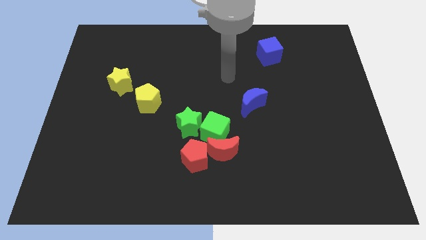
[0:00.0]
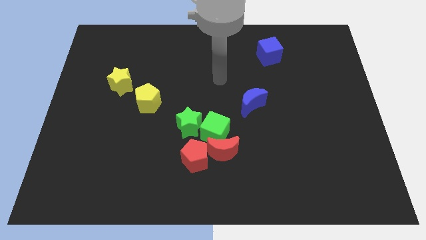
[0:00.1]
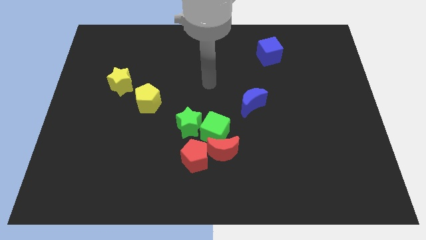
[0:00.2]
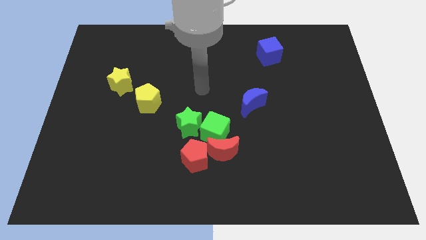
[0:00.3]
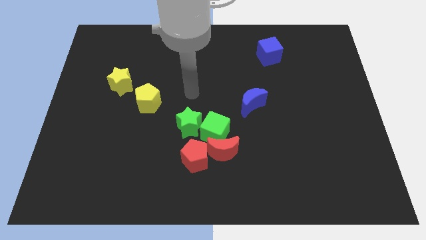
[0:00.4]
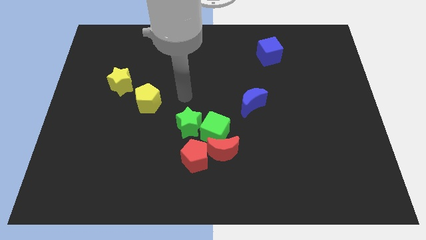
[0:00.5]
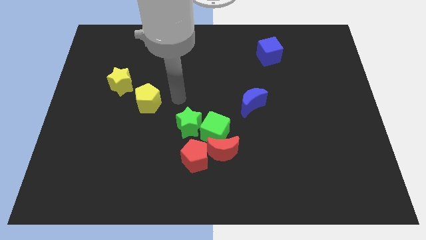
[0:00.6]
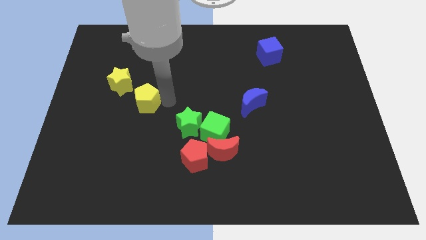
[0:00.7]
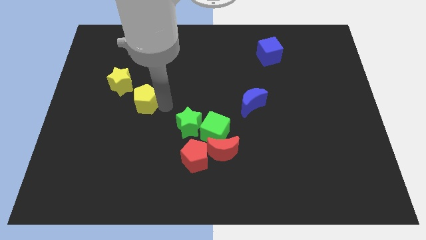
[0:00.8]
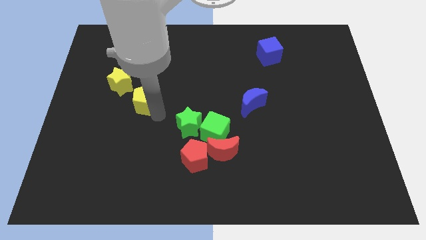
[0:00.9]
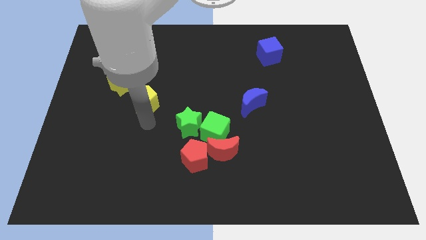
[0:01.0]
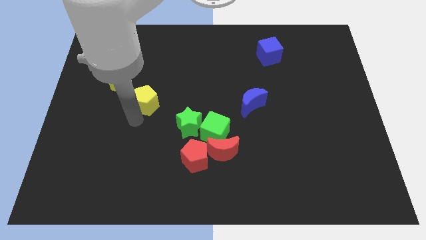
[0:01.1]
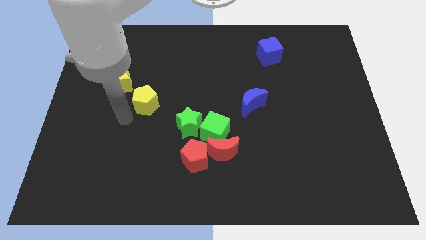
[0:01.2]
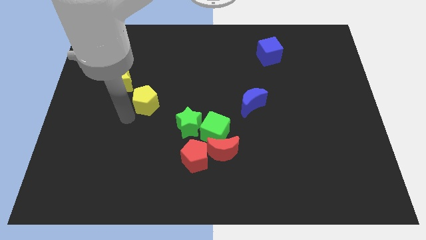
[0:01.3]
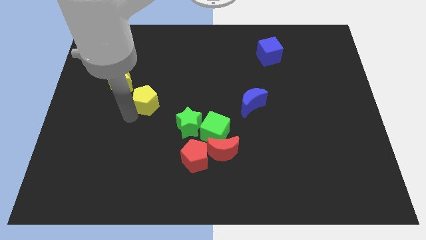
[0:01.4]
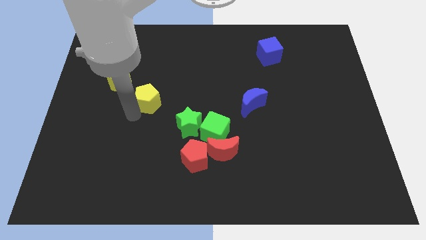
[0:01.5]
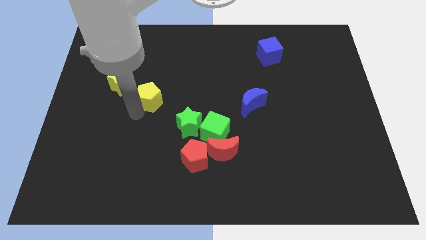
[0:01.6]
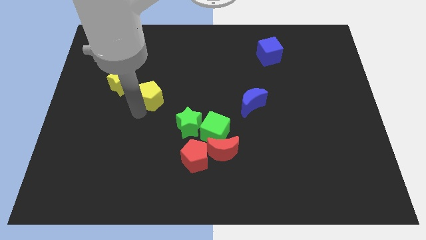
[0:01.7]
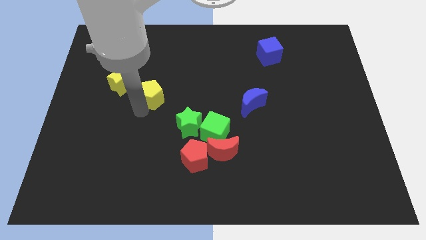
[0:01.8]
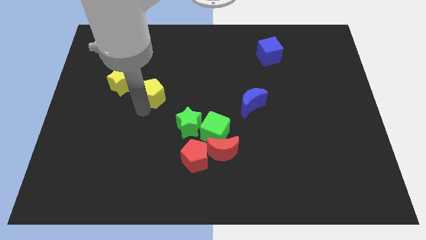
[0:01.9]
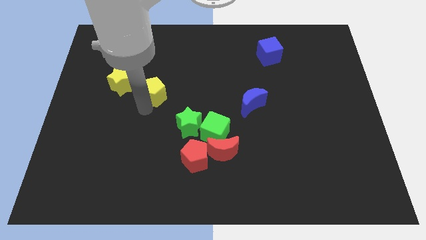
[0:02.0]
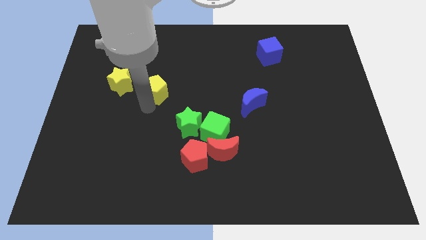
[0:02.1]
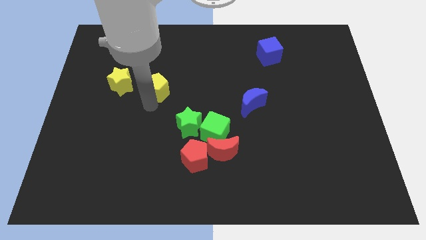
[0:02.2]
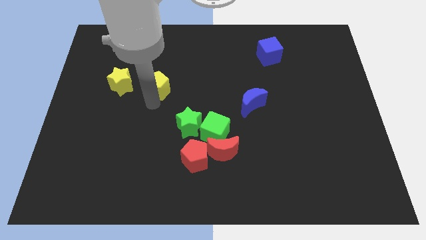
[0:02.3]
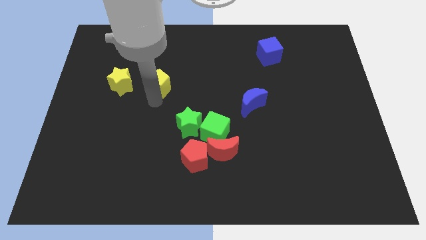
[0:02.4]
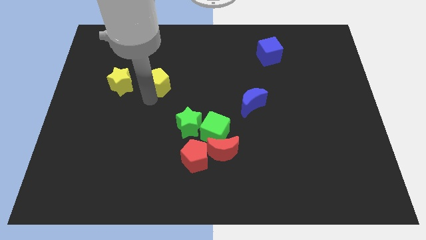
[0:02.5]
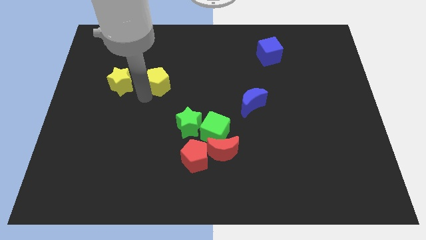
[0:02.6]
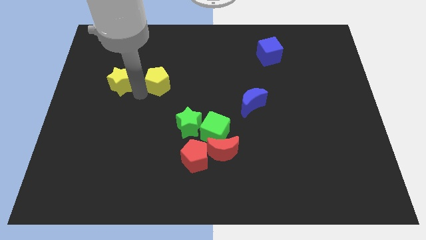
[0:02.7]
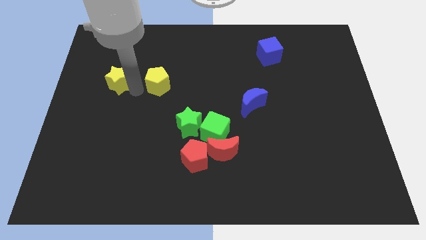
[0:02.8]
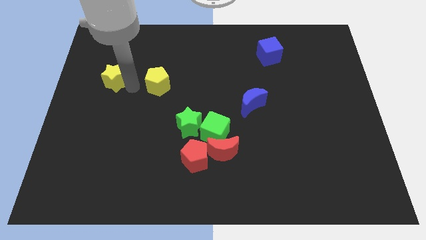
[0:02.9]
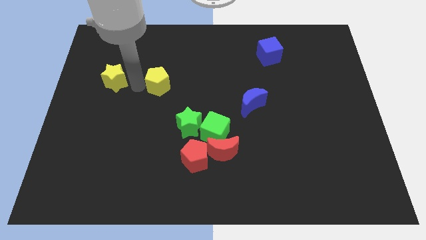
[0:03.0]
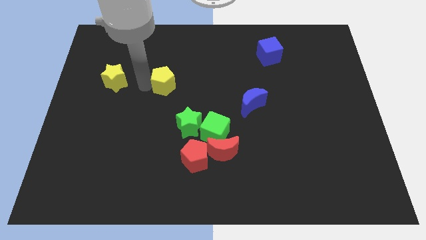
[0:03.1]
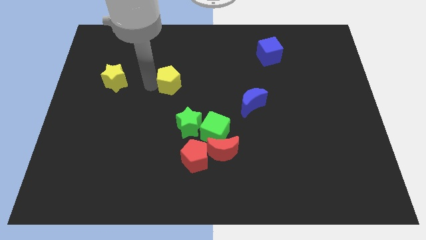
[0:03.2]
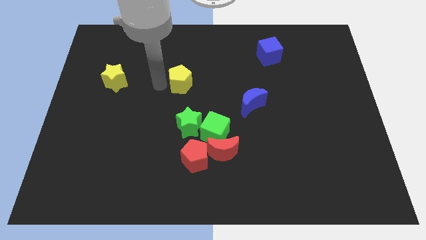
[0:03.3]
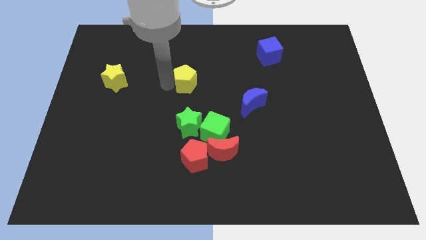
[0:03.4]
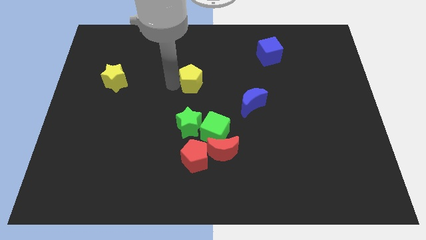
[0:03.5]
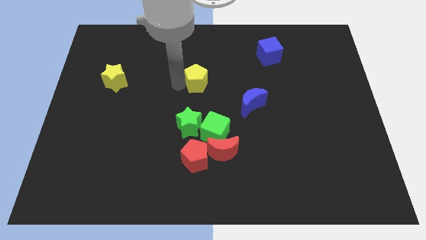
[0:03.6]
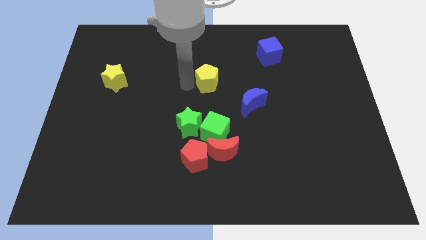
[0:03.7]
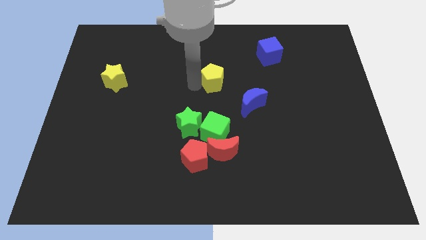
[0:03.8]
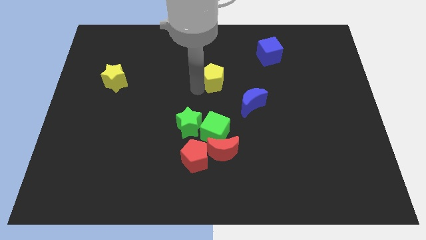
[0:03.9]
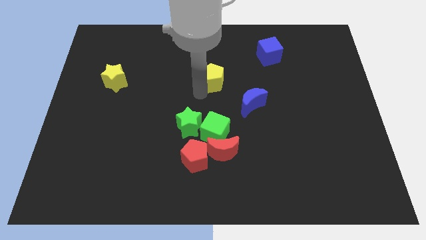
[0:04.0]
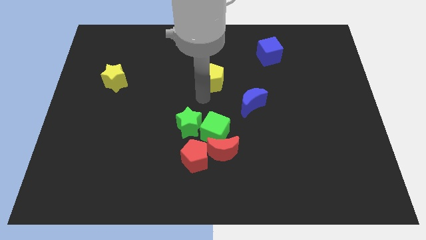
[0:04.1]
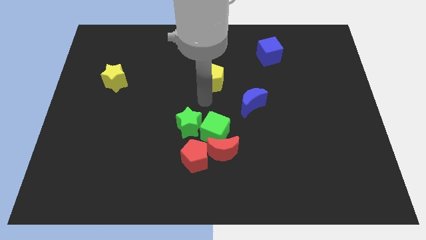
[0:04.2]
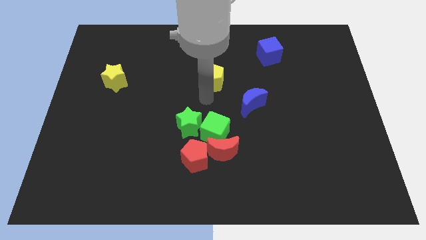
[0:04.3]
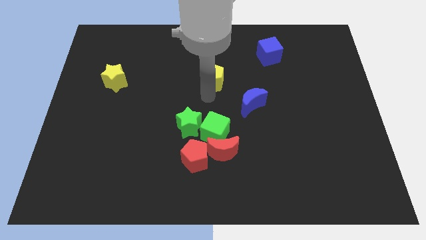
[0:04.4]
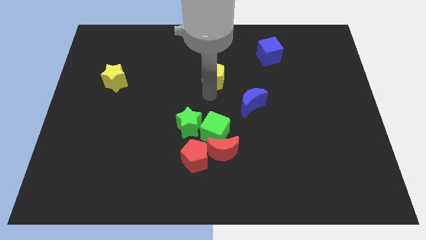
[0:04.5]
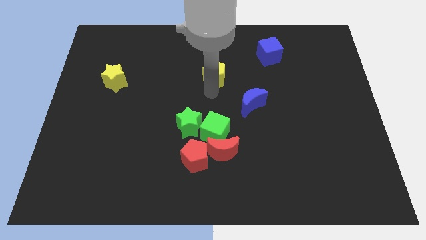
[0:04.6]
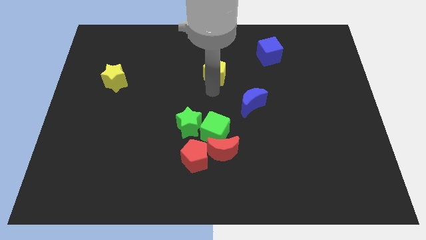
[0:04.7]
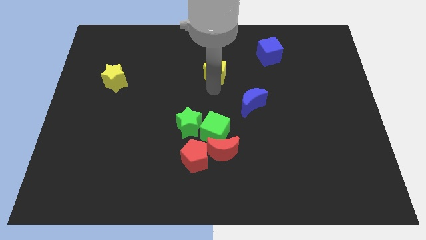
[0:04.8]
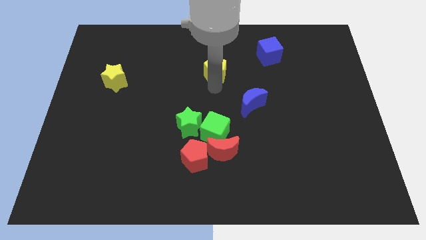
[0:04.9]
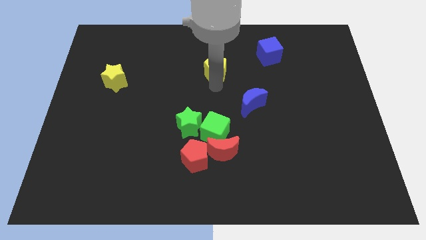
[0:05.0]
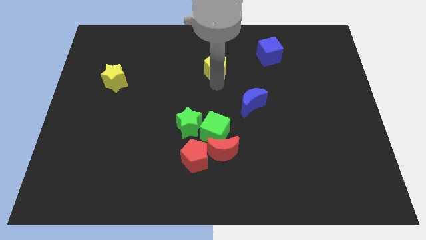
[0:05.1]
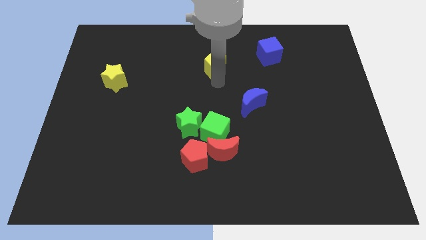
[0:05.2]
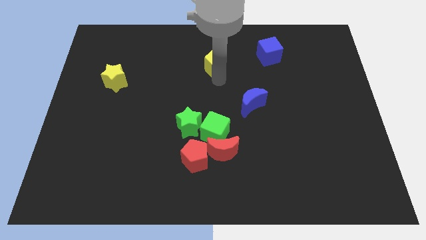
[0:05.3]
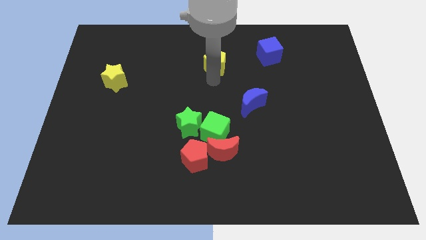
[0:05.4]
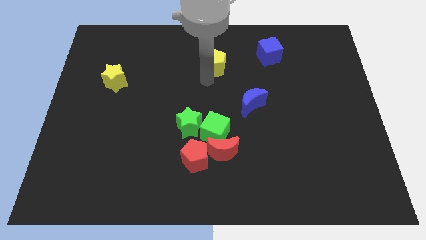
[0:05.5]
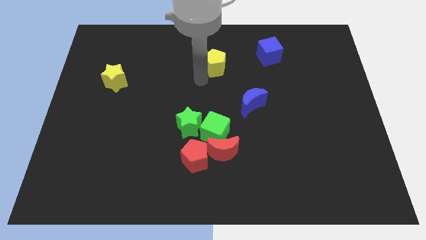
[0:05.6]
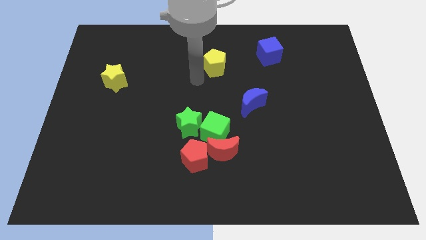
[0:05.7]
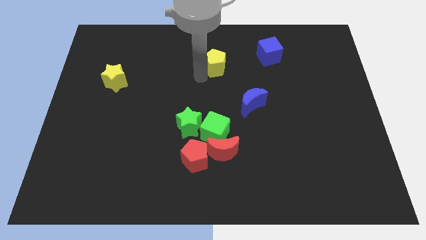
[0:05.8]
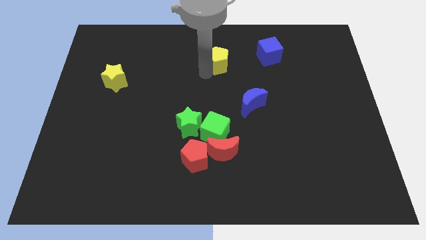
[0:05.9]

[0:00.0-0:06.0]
put the yellow pentagon to the left of the blue cube

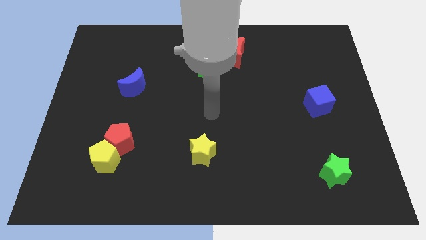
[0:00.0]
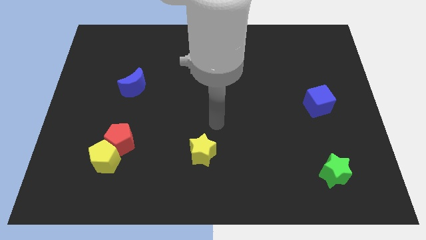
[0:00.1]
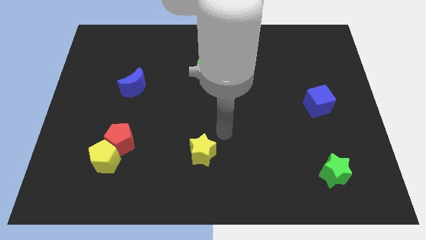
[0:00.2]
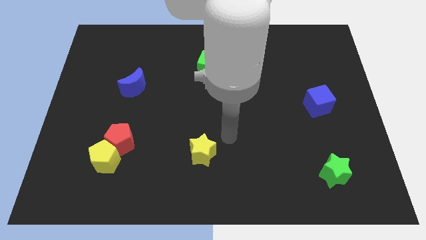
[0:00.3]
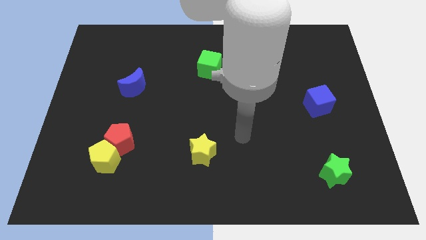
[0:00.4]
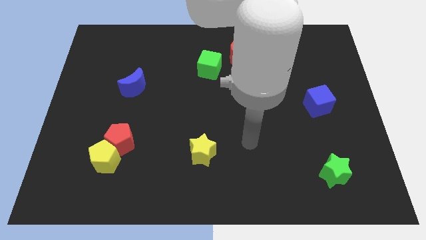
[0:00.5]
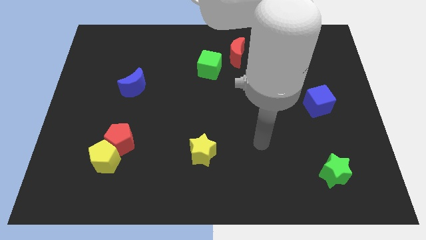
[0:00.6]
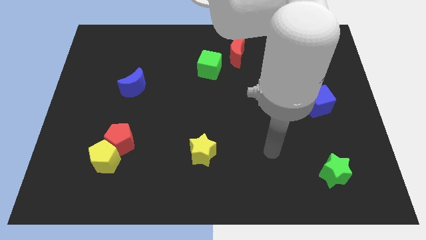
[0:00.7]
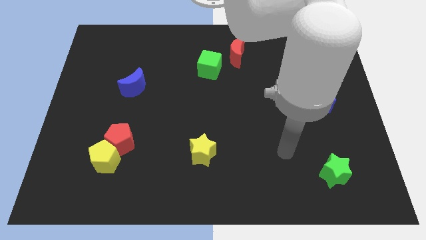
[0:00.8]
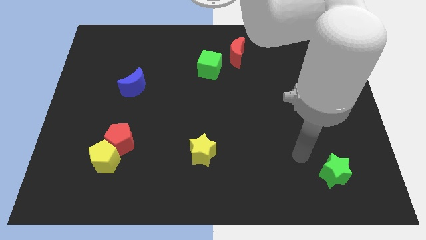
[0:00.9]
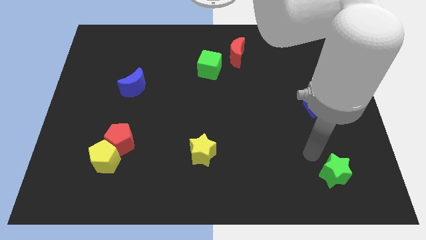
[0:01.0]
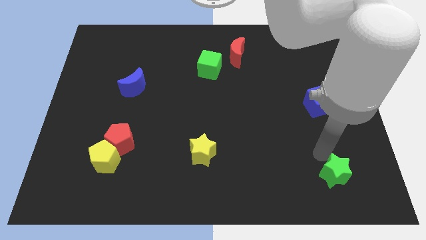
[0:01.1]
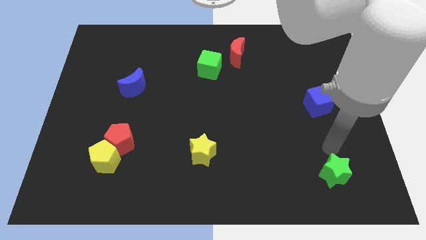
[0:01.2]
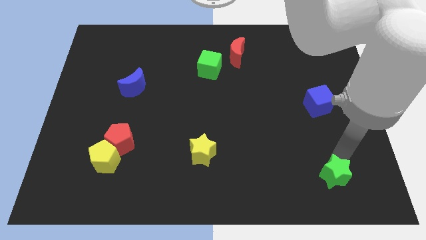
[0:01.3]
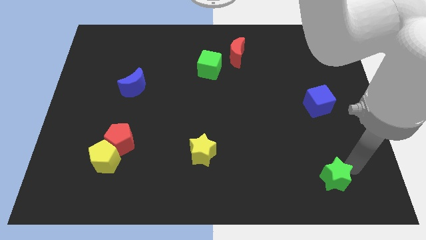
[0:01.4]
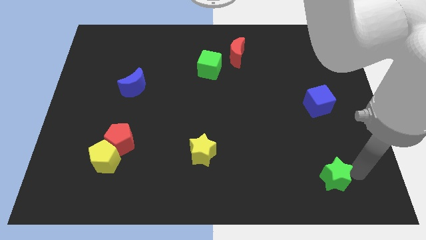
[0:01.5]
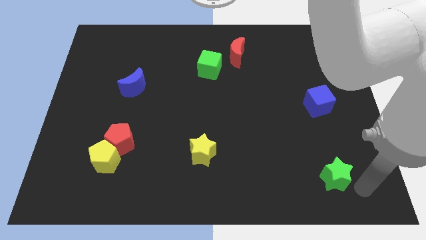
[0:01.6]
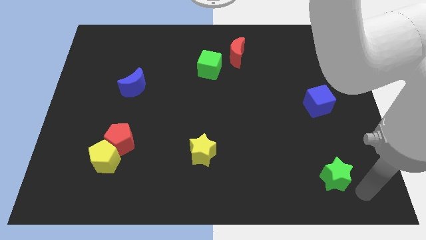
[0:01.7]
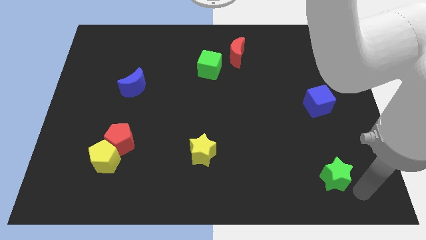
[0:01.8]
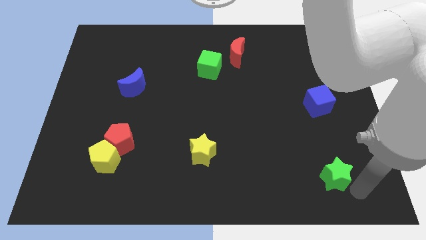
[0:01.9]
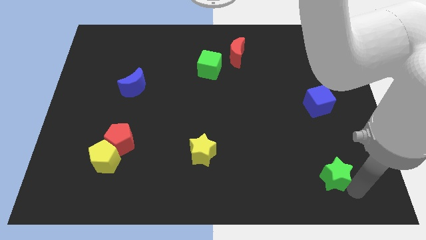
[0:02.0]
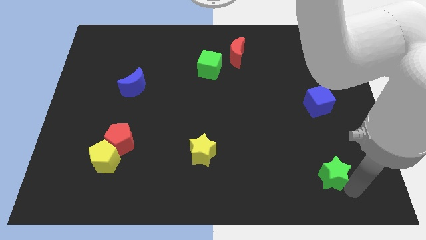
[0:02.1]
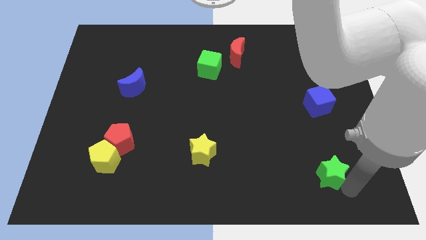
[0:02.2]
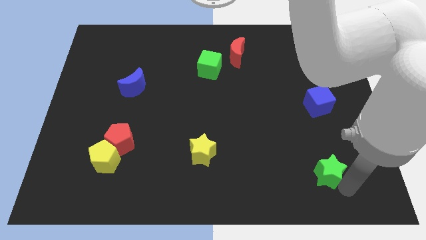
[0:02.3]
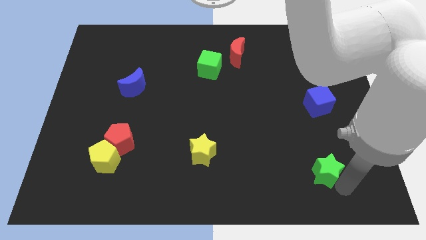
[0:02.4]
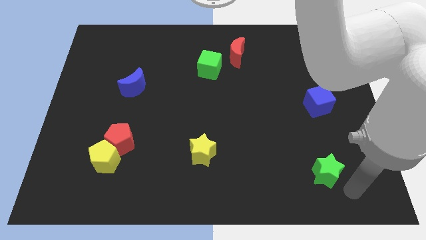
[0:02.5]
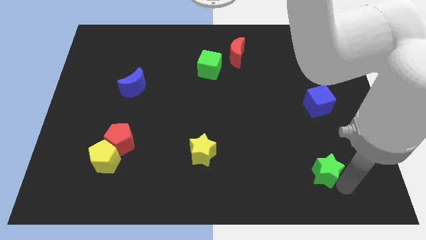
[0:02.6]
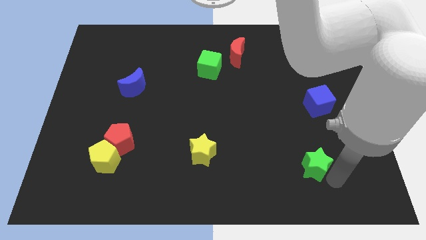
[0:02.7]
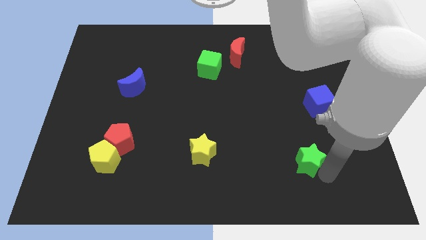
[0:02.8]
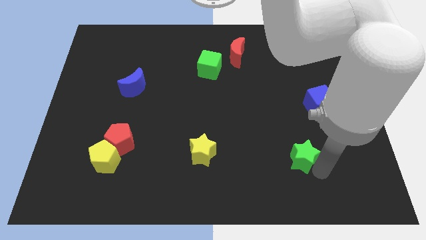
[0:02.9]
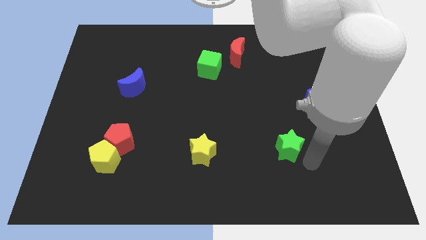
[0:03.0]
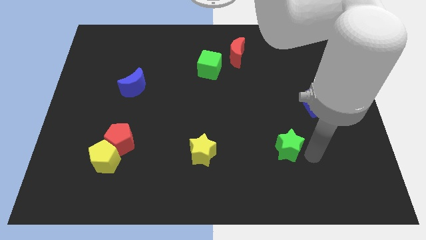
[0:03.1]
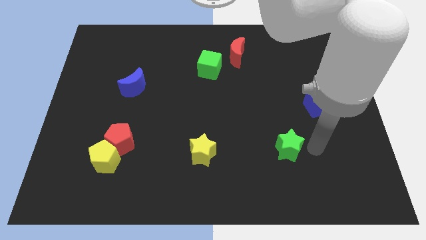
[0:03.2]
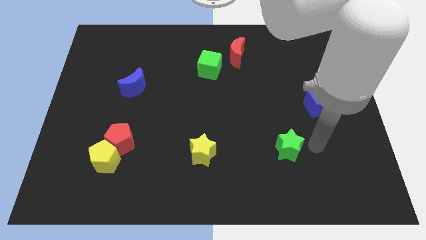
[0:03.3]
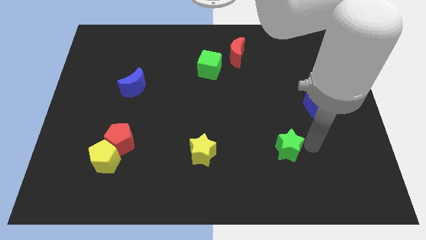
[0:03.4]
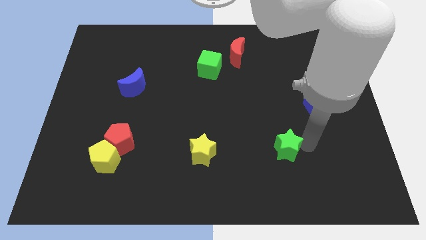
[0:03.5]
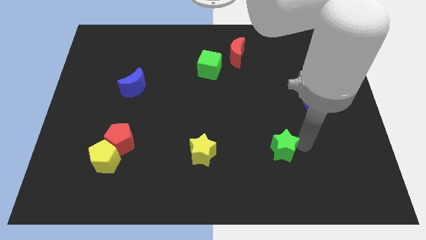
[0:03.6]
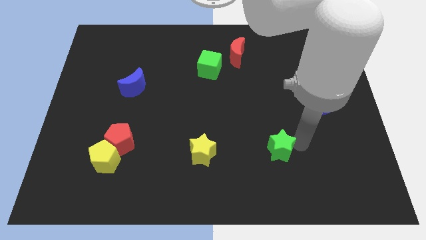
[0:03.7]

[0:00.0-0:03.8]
push the green star just right of the yellow star
